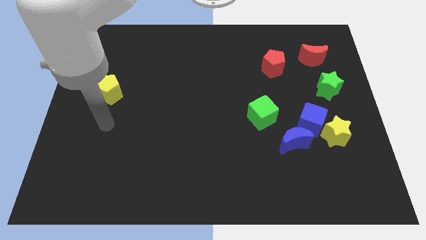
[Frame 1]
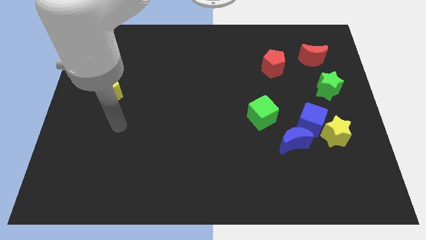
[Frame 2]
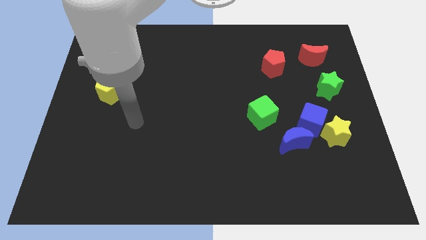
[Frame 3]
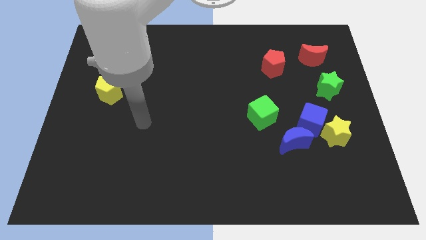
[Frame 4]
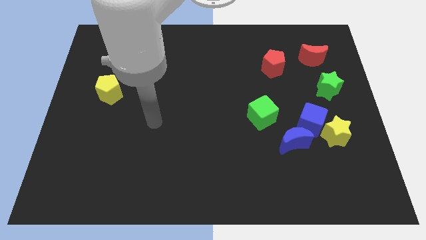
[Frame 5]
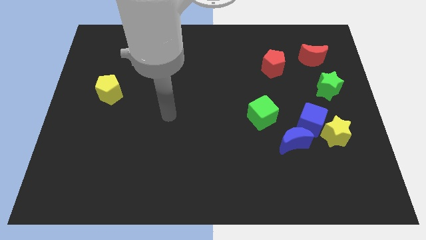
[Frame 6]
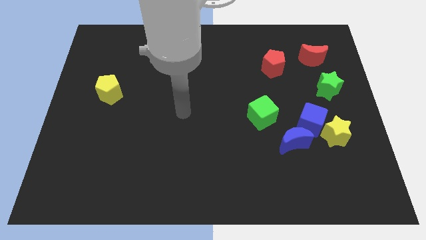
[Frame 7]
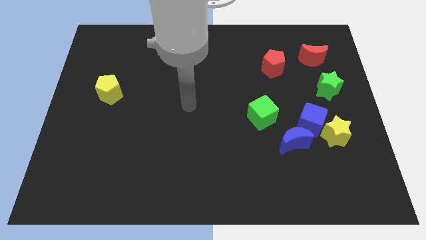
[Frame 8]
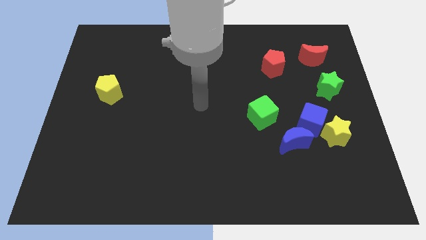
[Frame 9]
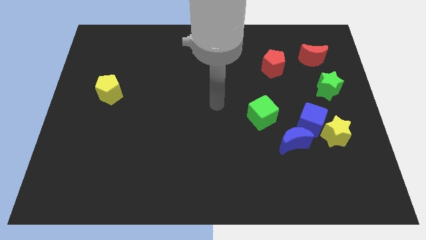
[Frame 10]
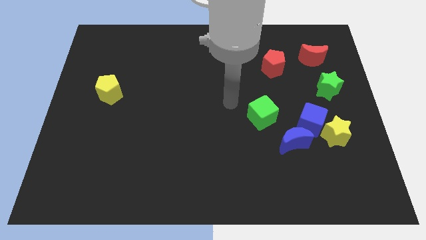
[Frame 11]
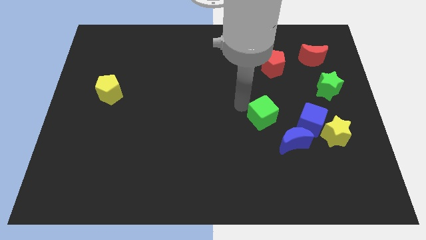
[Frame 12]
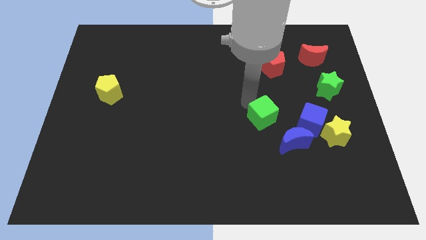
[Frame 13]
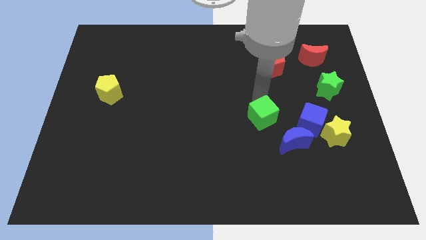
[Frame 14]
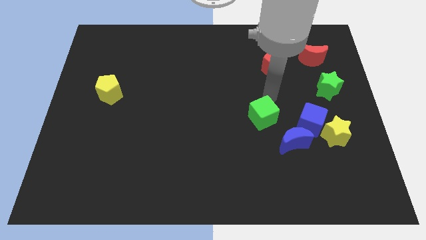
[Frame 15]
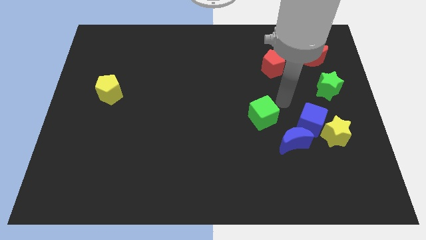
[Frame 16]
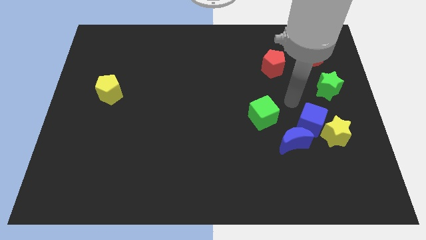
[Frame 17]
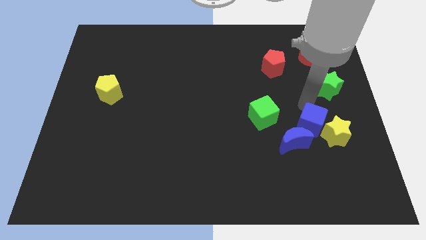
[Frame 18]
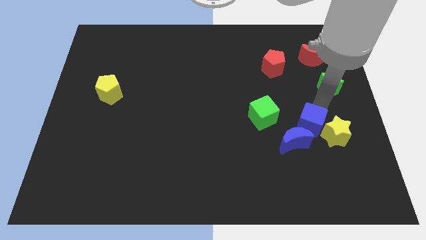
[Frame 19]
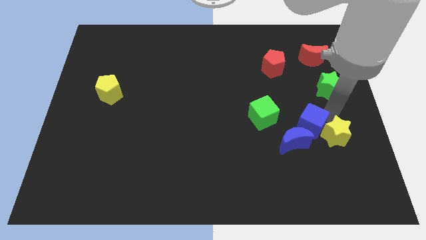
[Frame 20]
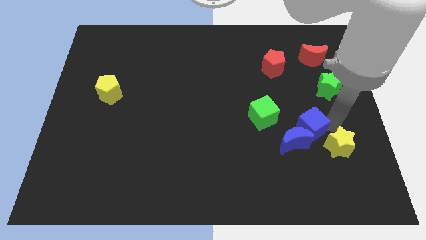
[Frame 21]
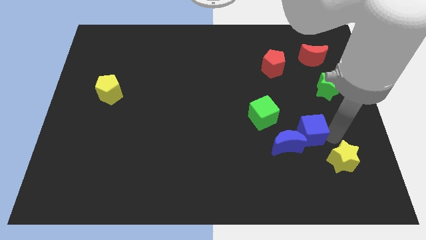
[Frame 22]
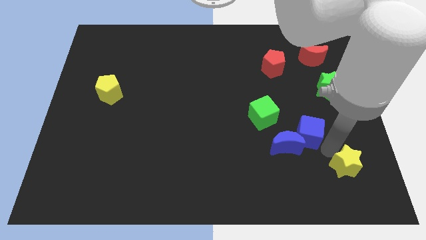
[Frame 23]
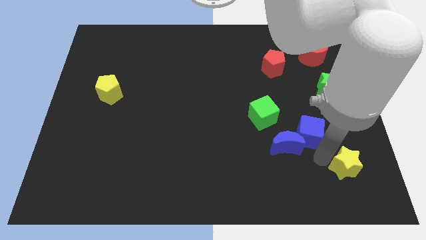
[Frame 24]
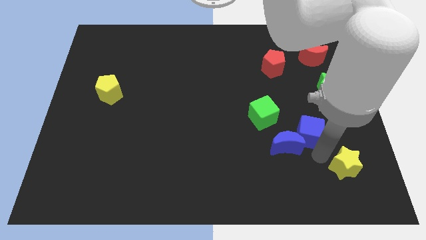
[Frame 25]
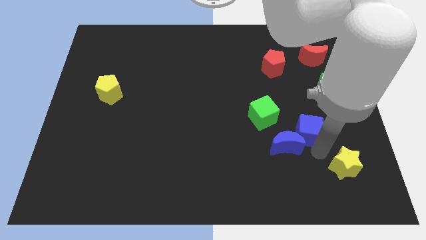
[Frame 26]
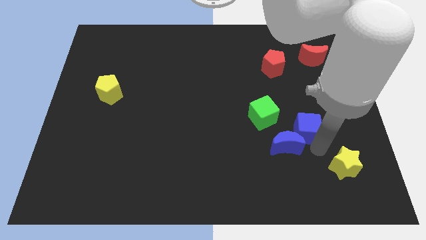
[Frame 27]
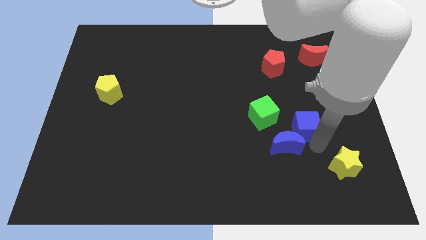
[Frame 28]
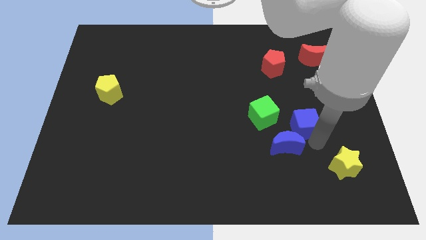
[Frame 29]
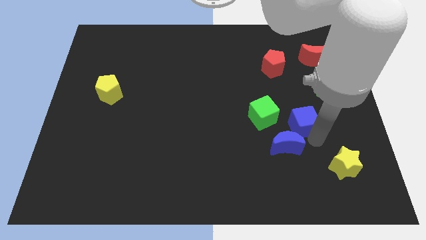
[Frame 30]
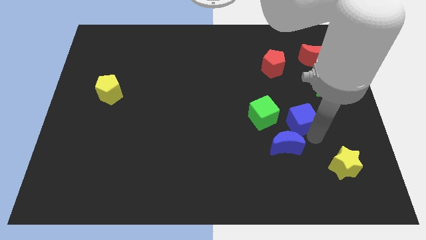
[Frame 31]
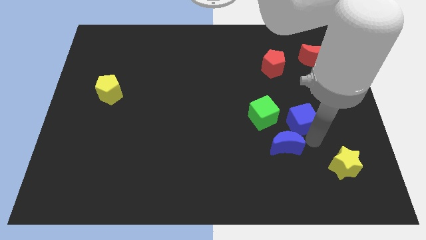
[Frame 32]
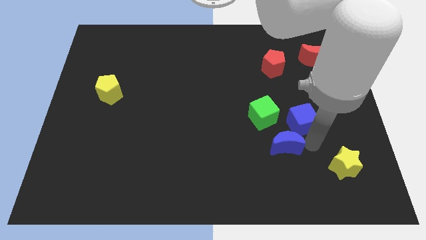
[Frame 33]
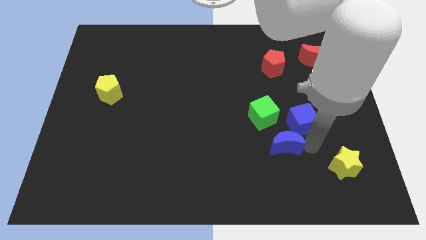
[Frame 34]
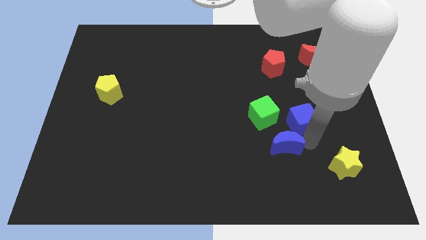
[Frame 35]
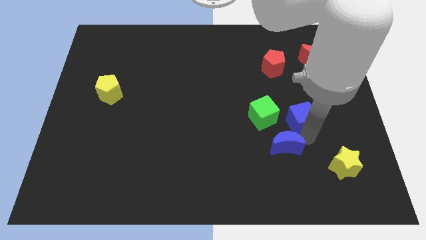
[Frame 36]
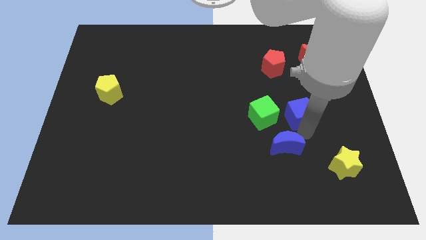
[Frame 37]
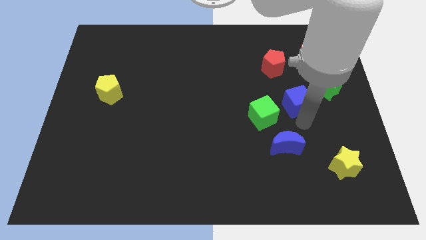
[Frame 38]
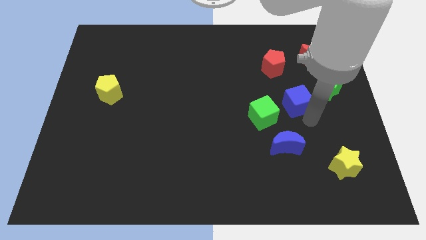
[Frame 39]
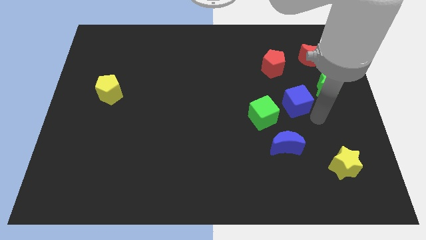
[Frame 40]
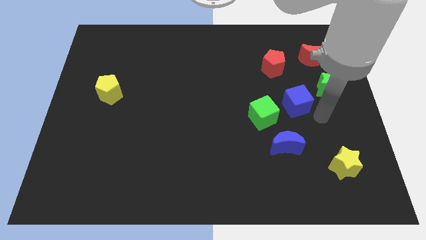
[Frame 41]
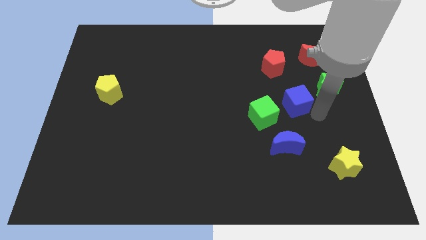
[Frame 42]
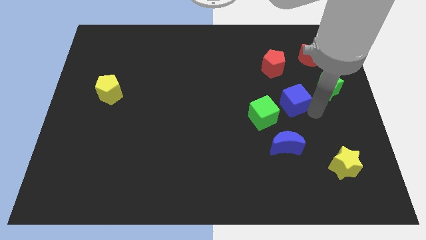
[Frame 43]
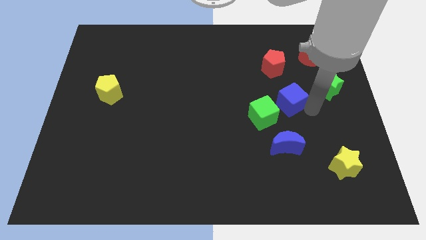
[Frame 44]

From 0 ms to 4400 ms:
push the blue cube diagonally upwards and left slightly

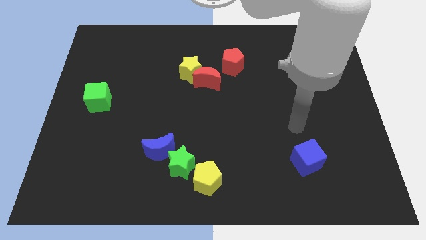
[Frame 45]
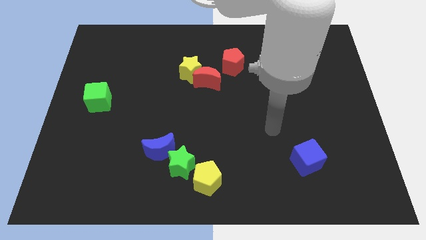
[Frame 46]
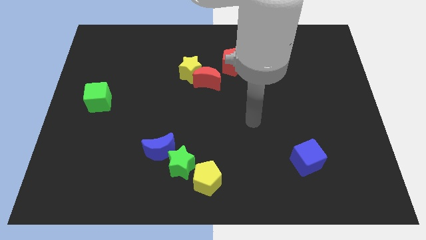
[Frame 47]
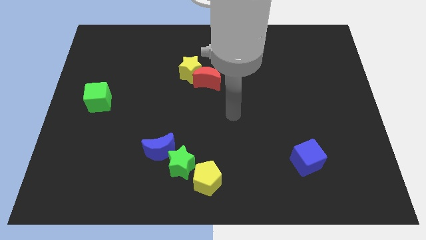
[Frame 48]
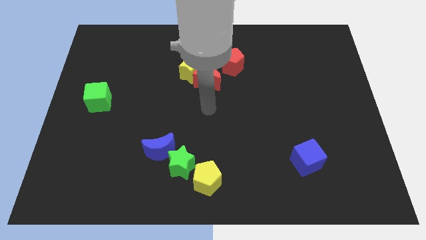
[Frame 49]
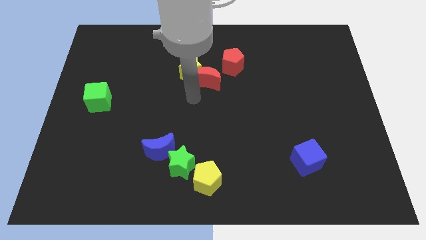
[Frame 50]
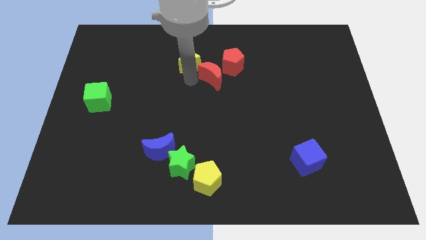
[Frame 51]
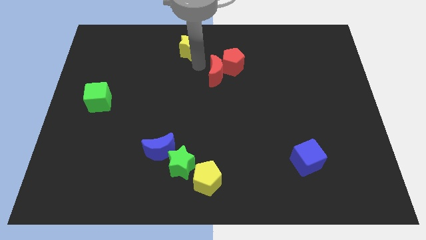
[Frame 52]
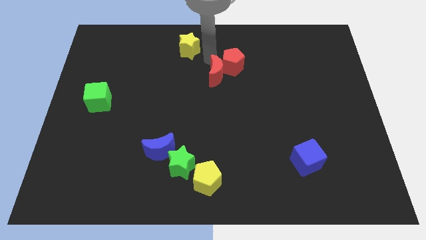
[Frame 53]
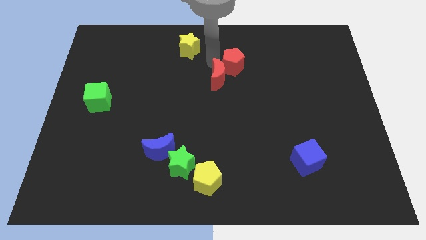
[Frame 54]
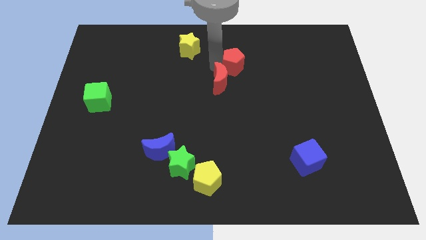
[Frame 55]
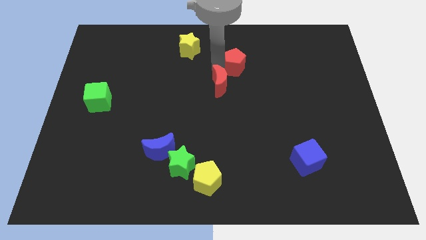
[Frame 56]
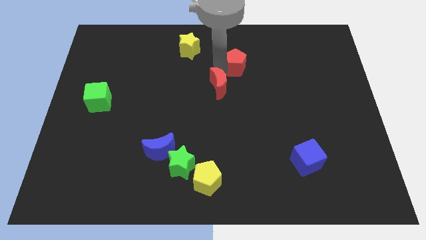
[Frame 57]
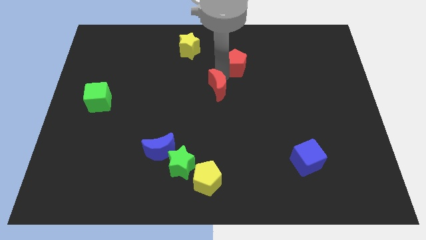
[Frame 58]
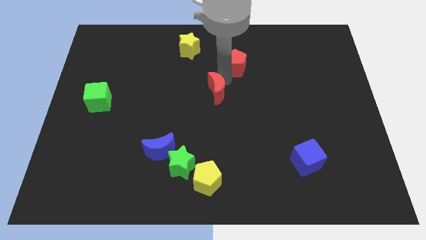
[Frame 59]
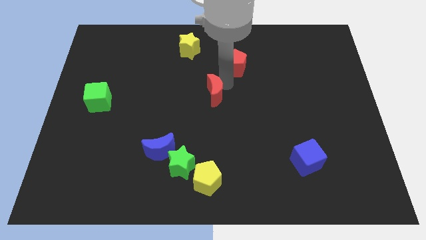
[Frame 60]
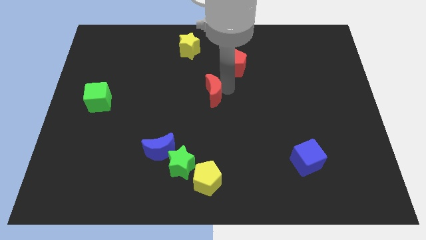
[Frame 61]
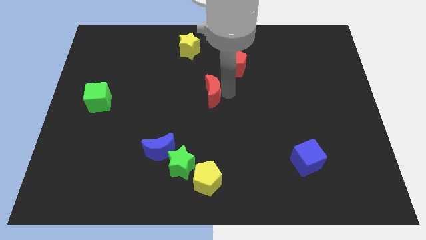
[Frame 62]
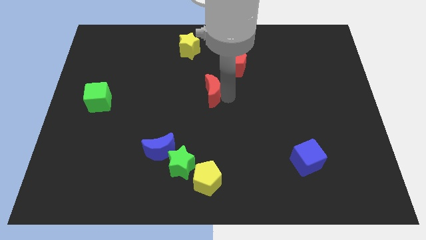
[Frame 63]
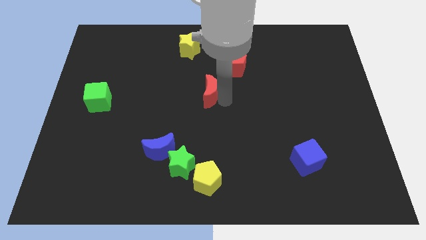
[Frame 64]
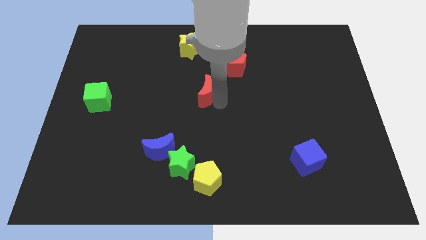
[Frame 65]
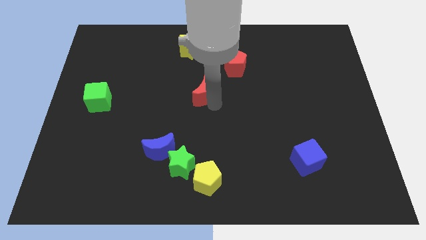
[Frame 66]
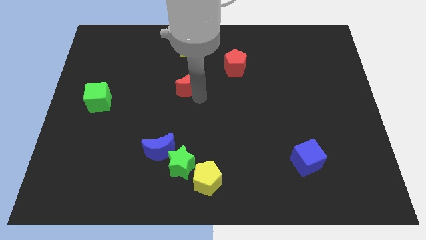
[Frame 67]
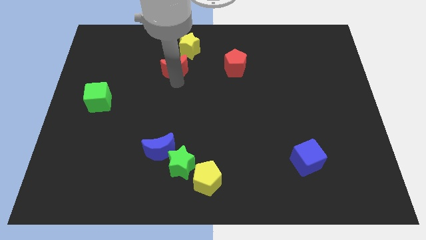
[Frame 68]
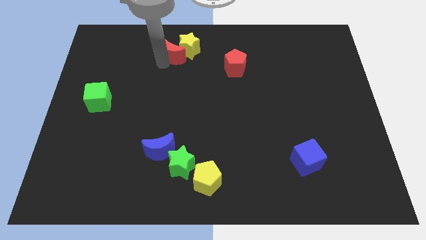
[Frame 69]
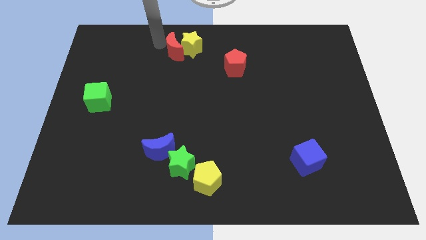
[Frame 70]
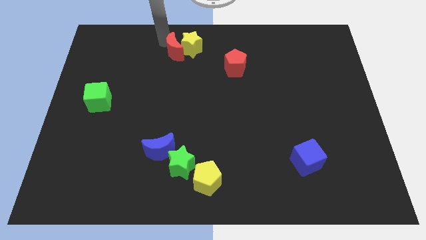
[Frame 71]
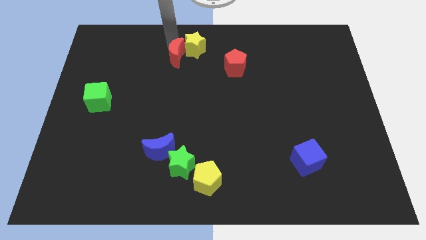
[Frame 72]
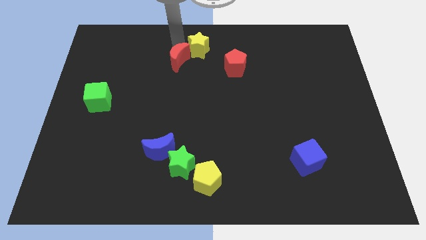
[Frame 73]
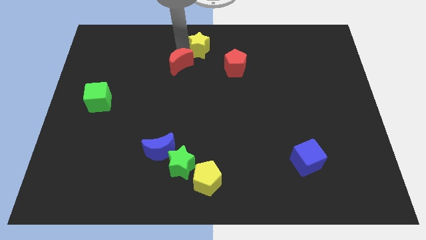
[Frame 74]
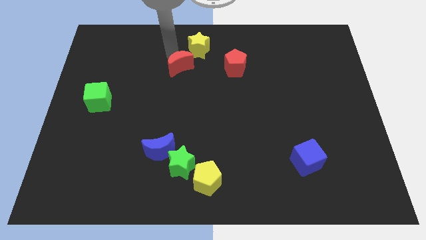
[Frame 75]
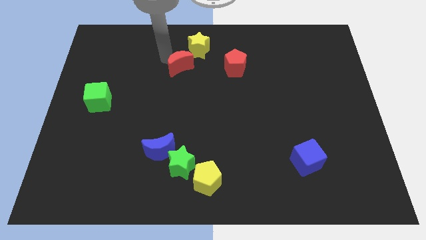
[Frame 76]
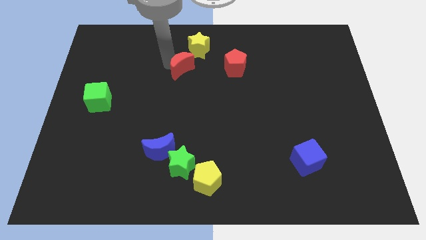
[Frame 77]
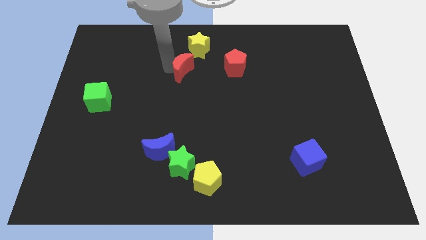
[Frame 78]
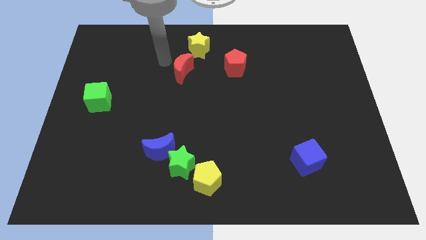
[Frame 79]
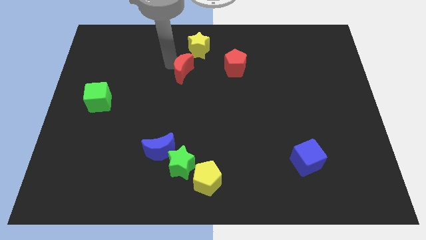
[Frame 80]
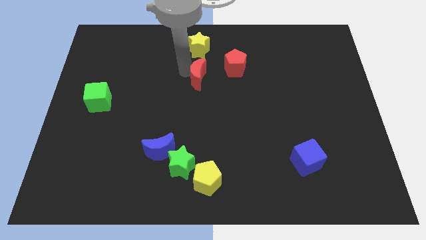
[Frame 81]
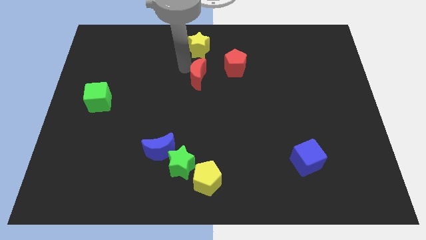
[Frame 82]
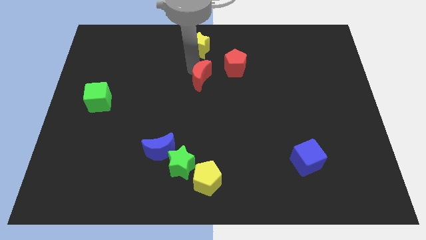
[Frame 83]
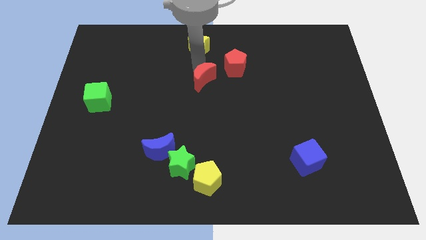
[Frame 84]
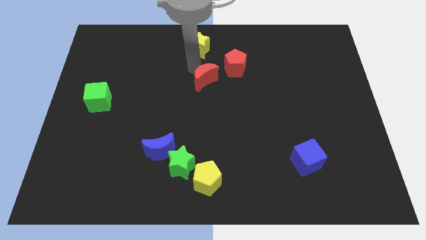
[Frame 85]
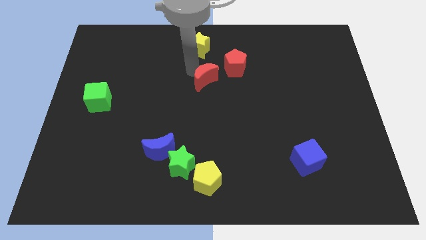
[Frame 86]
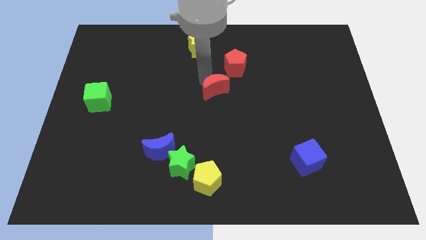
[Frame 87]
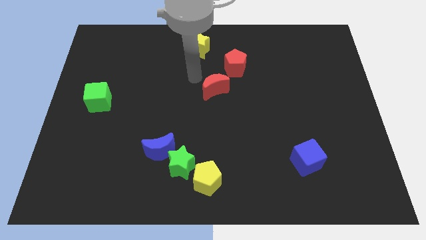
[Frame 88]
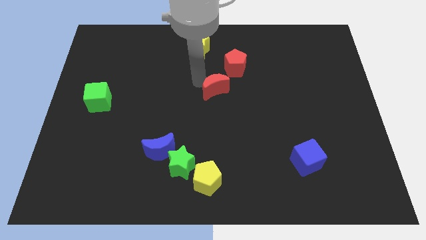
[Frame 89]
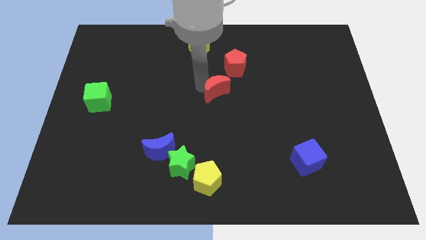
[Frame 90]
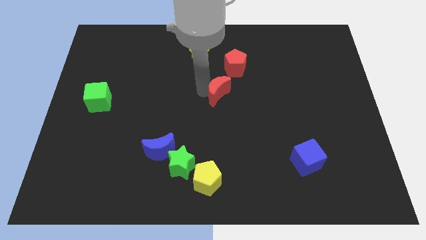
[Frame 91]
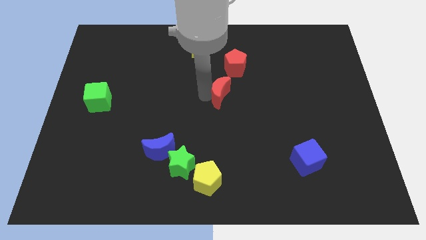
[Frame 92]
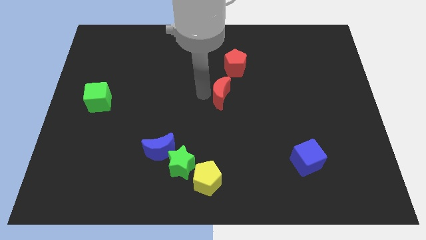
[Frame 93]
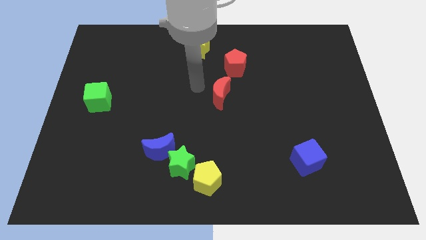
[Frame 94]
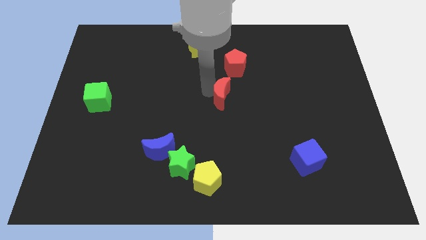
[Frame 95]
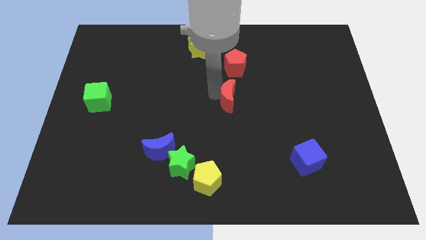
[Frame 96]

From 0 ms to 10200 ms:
slightly slide the red moon down and right
